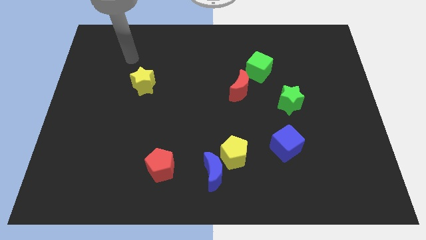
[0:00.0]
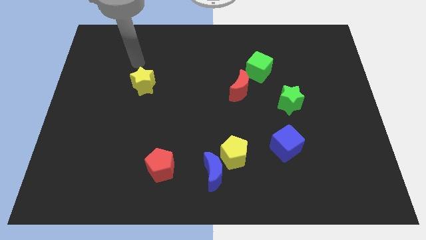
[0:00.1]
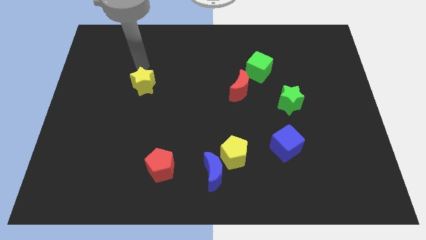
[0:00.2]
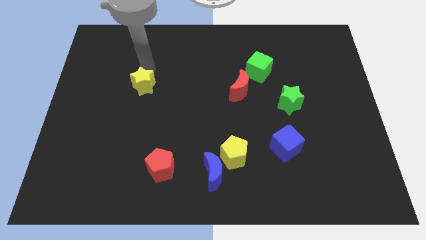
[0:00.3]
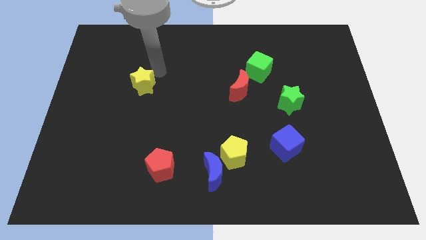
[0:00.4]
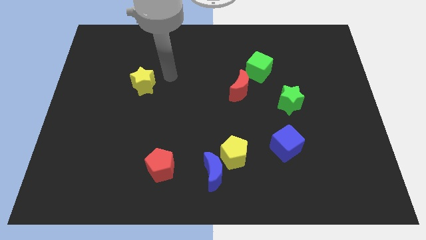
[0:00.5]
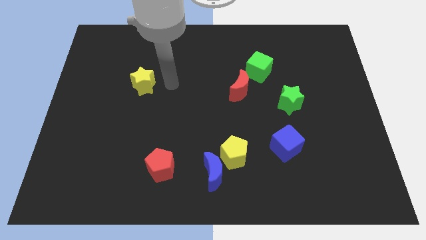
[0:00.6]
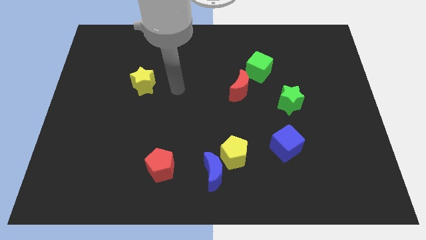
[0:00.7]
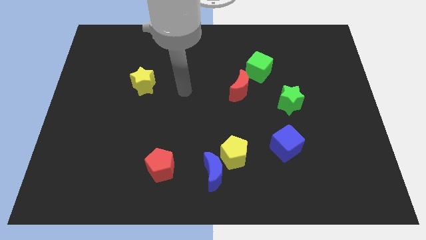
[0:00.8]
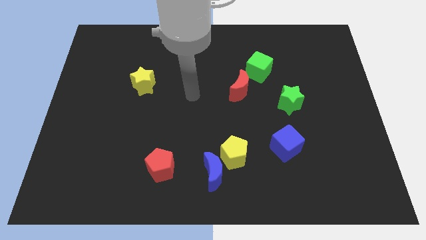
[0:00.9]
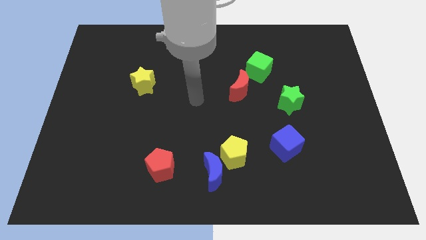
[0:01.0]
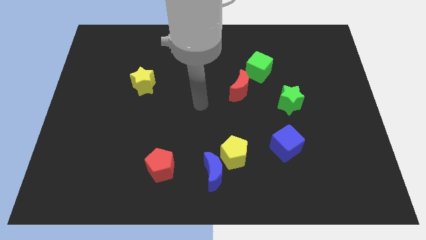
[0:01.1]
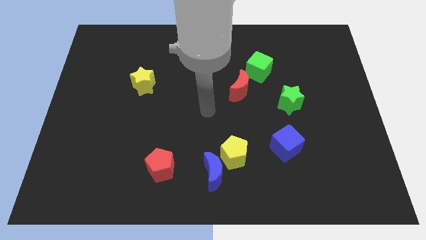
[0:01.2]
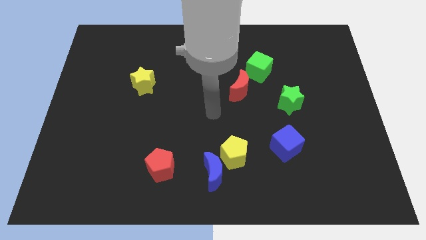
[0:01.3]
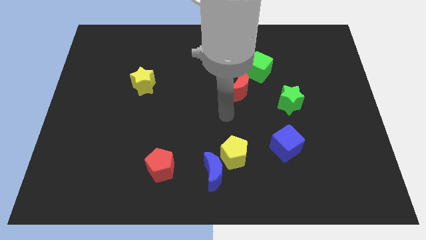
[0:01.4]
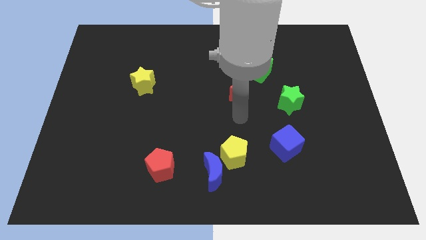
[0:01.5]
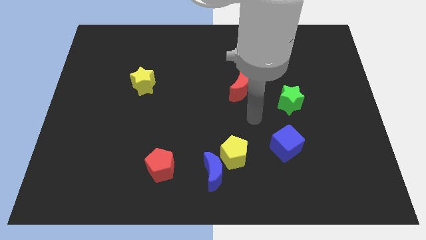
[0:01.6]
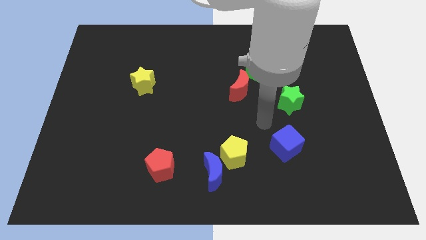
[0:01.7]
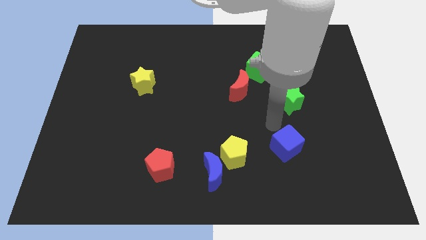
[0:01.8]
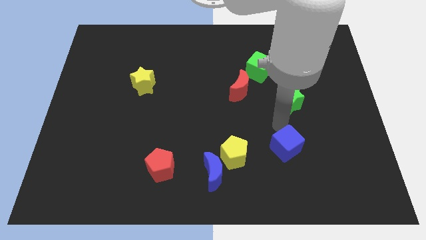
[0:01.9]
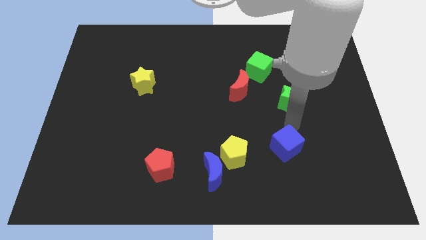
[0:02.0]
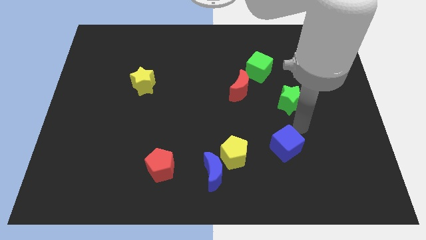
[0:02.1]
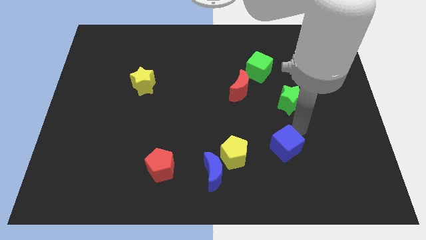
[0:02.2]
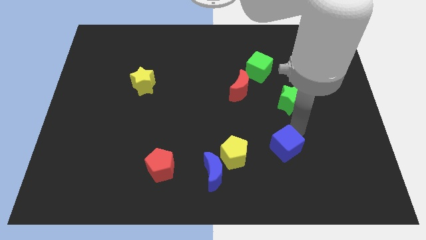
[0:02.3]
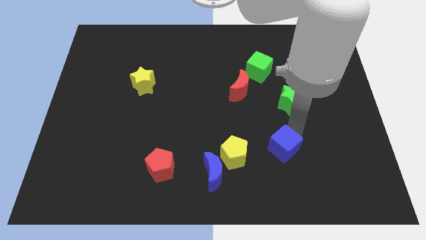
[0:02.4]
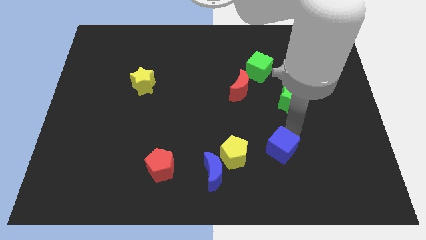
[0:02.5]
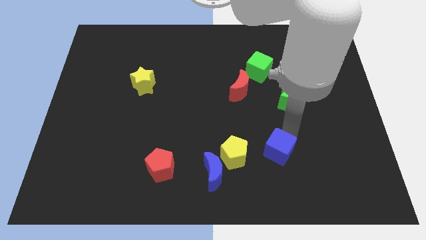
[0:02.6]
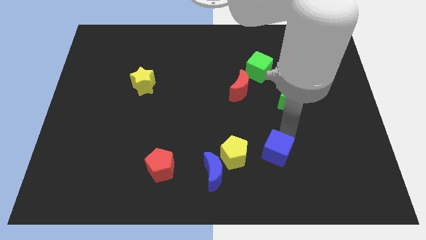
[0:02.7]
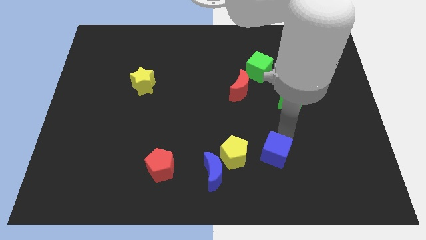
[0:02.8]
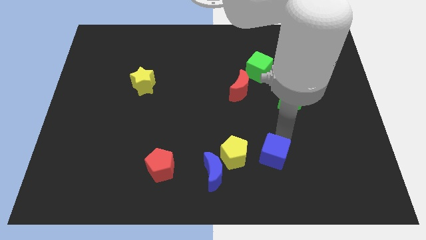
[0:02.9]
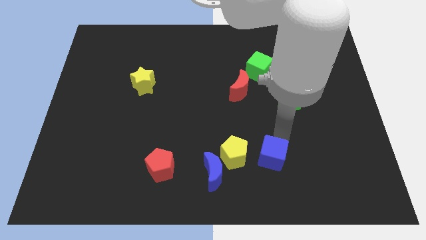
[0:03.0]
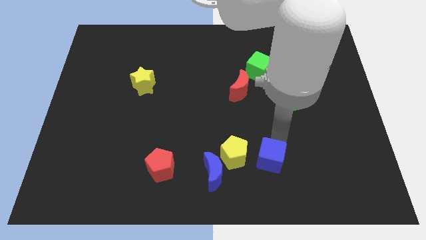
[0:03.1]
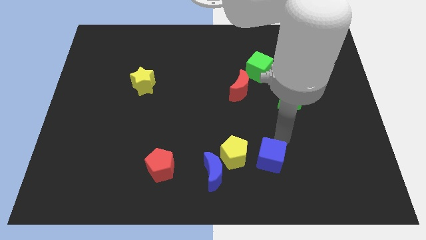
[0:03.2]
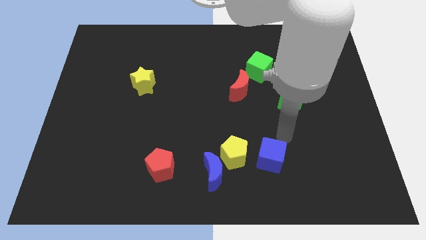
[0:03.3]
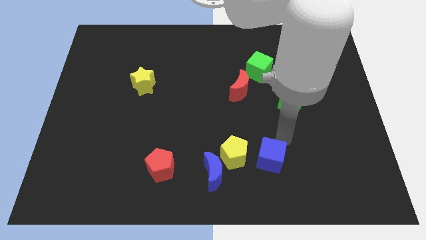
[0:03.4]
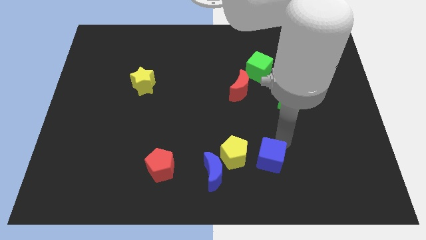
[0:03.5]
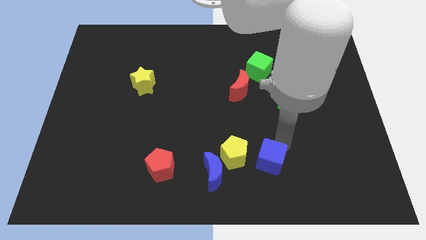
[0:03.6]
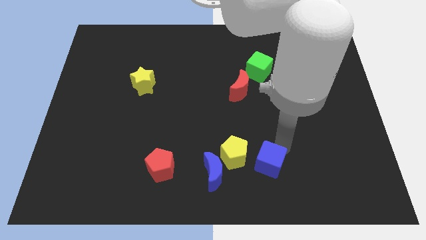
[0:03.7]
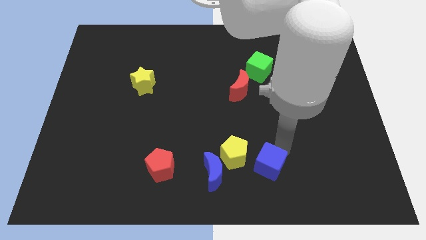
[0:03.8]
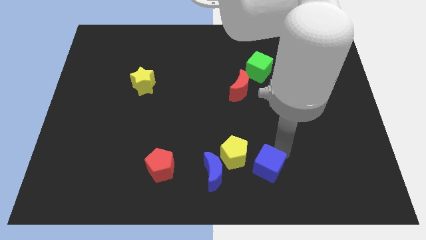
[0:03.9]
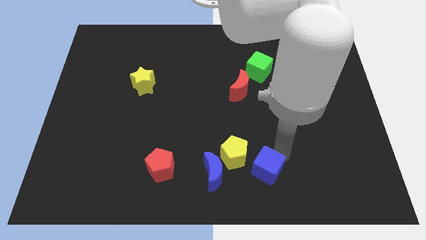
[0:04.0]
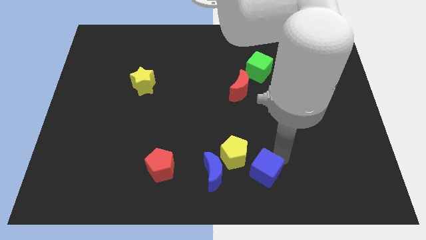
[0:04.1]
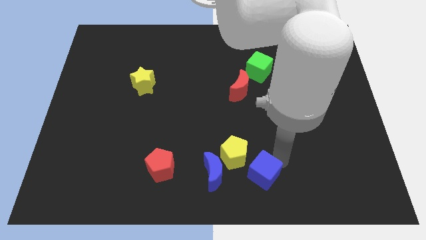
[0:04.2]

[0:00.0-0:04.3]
put the blue cube to the bottom

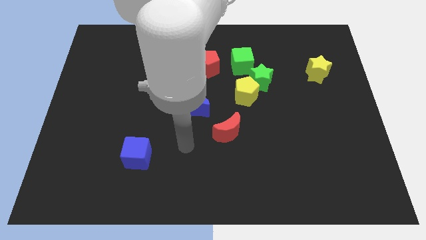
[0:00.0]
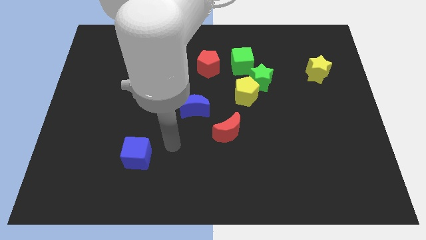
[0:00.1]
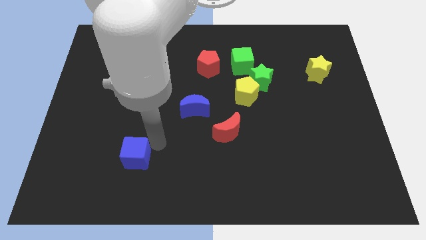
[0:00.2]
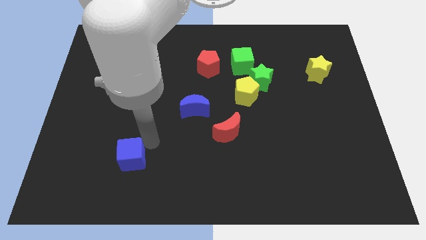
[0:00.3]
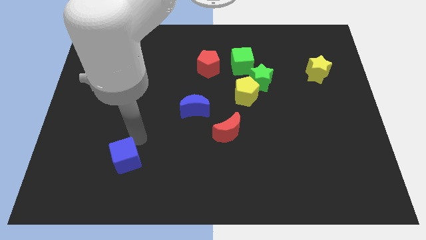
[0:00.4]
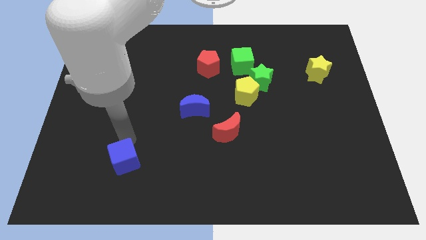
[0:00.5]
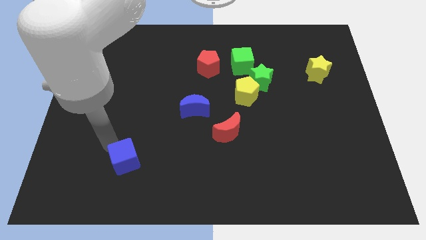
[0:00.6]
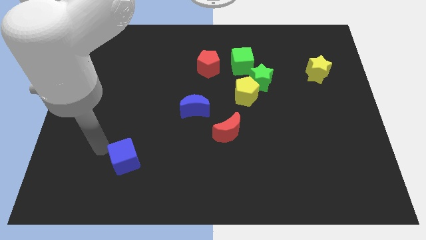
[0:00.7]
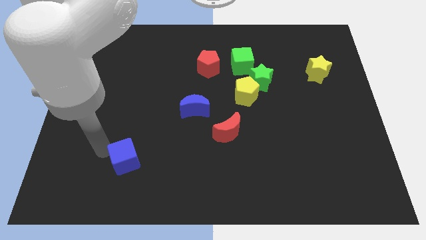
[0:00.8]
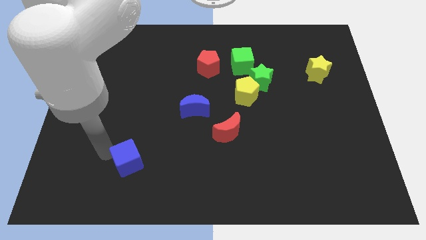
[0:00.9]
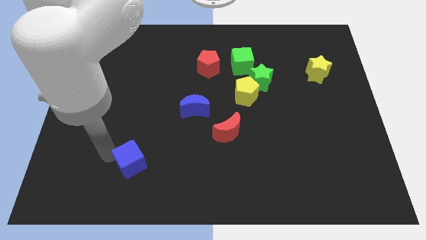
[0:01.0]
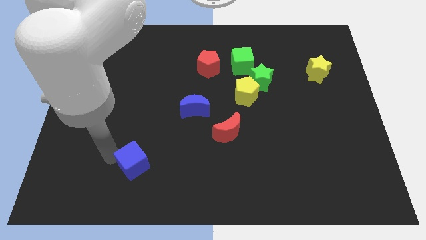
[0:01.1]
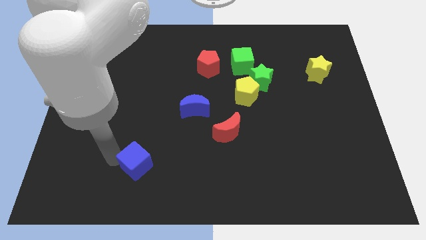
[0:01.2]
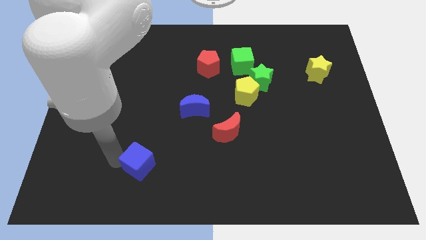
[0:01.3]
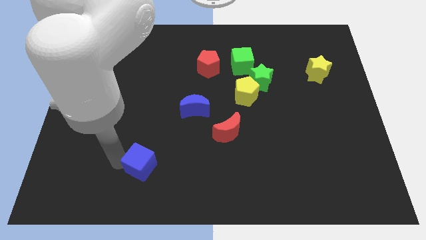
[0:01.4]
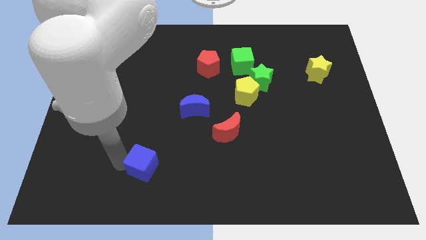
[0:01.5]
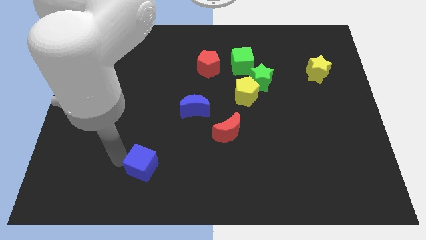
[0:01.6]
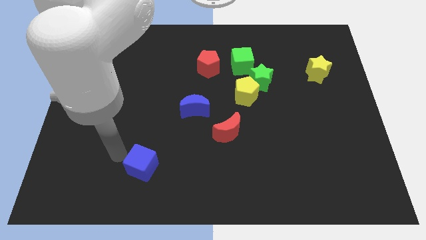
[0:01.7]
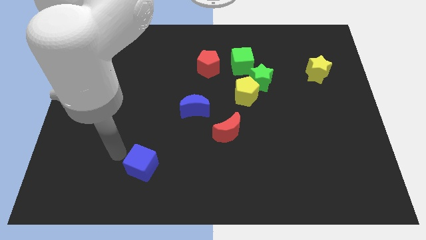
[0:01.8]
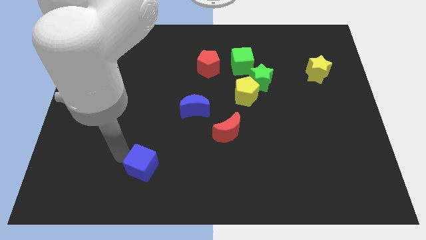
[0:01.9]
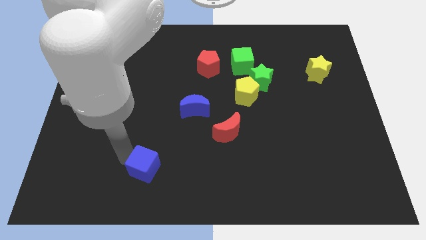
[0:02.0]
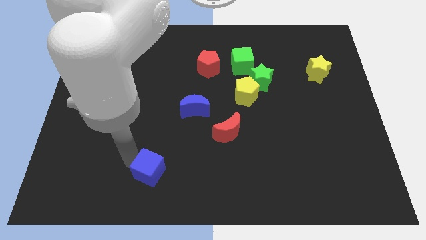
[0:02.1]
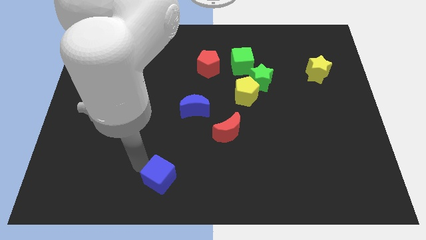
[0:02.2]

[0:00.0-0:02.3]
slide the blue cube to the bottom

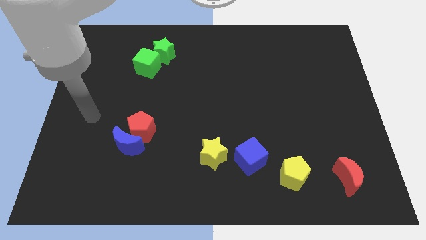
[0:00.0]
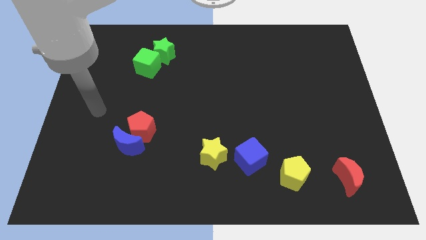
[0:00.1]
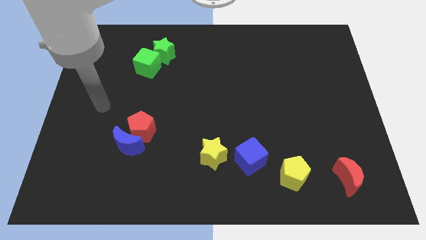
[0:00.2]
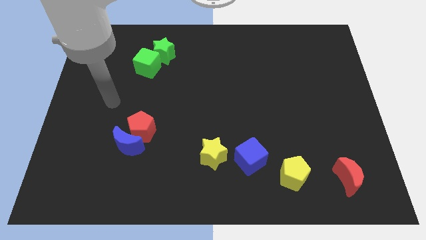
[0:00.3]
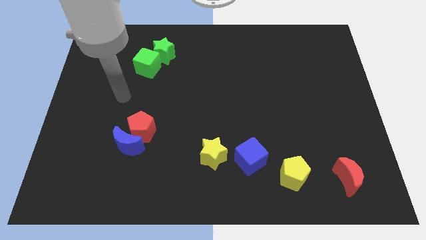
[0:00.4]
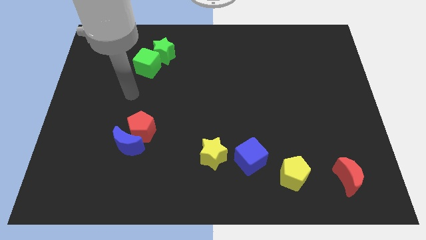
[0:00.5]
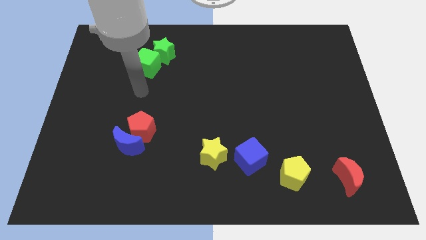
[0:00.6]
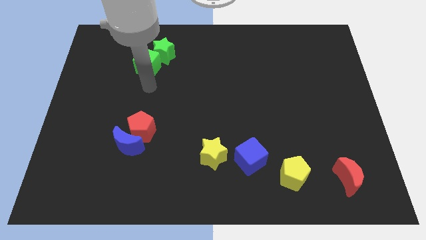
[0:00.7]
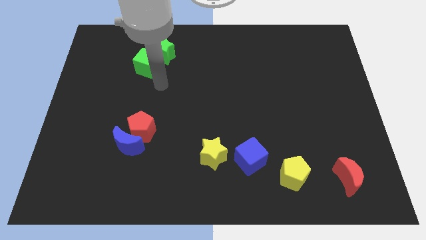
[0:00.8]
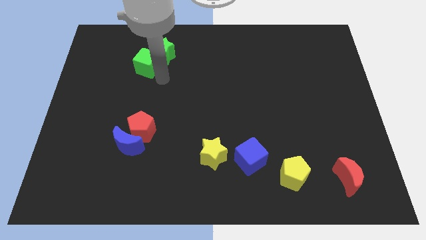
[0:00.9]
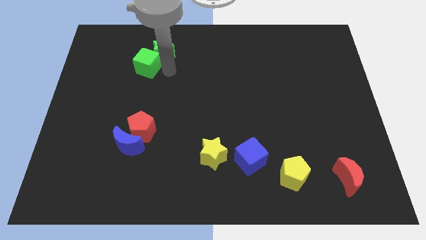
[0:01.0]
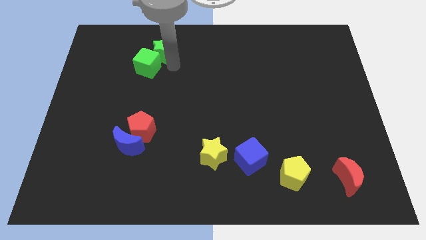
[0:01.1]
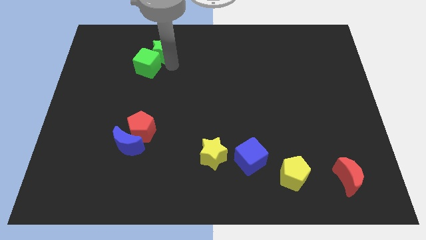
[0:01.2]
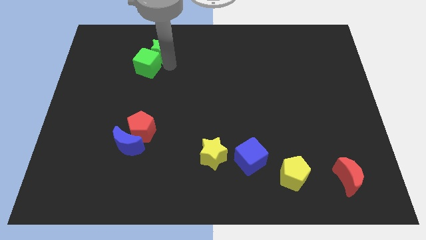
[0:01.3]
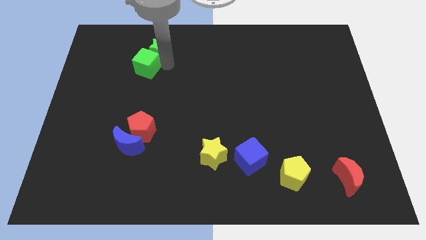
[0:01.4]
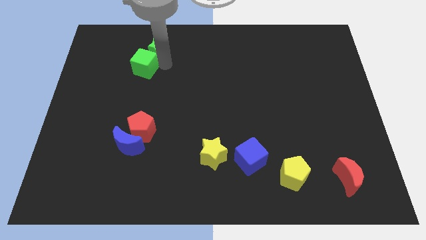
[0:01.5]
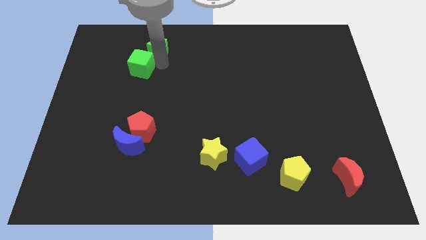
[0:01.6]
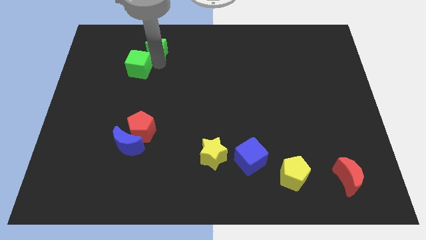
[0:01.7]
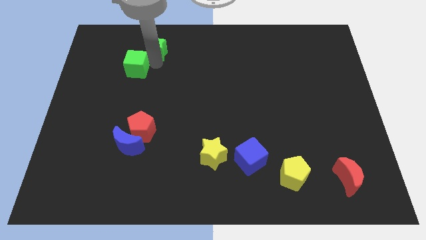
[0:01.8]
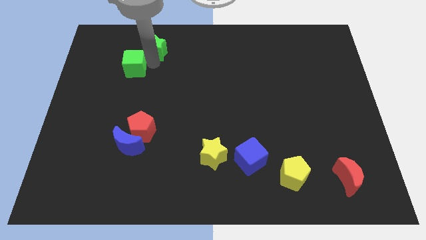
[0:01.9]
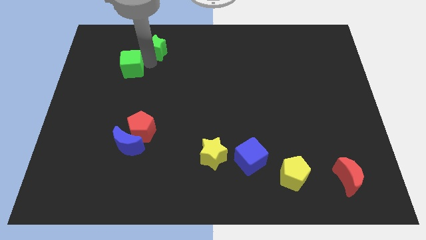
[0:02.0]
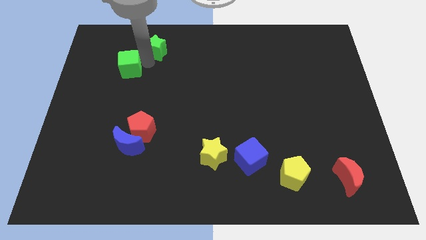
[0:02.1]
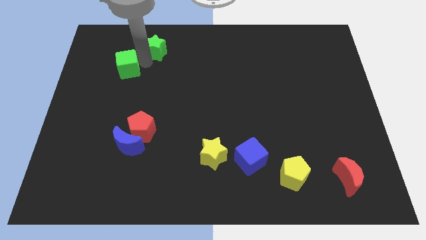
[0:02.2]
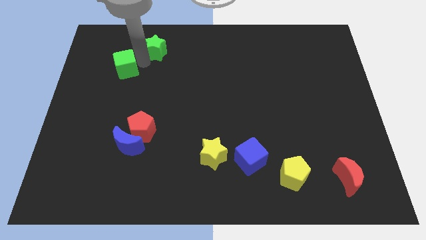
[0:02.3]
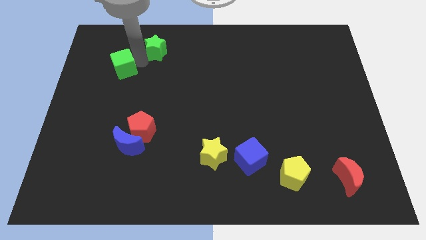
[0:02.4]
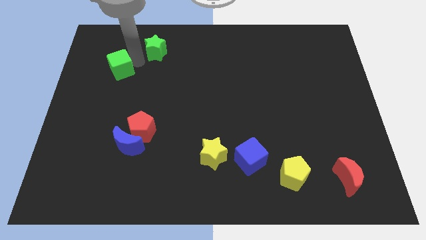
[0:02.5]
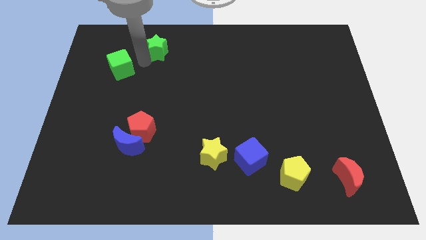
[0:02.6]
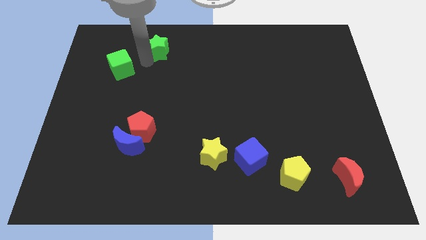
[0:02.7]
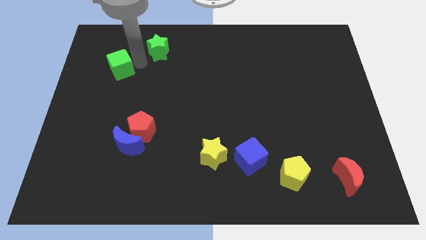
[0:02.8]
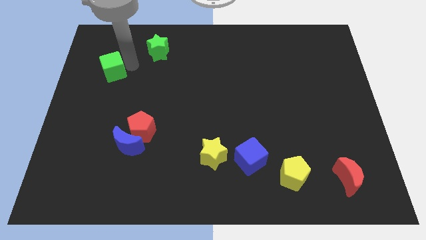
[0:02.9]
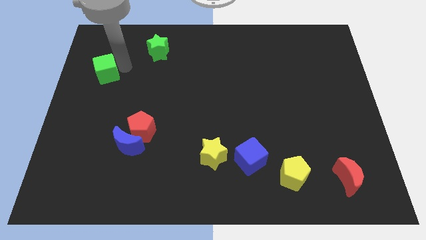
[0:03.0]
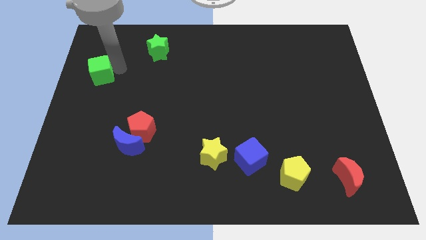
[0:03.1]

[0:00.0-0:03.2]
push the green cube to the left side
